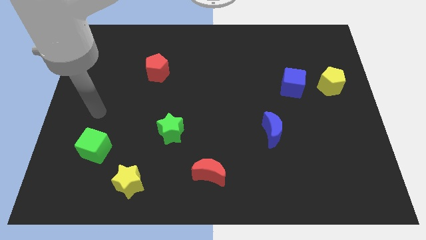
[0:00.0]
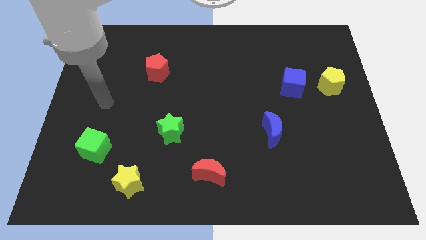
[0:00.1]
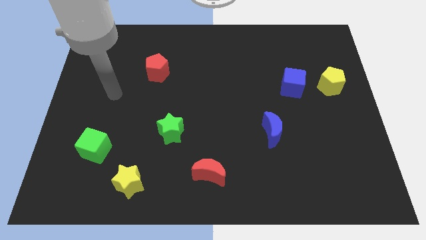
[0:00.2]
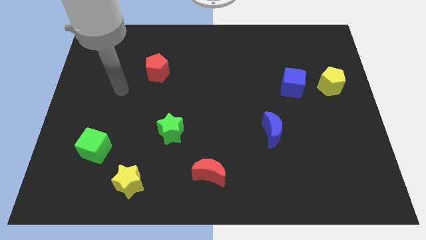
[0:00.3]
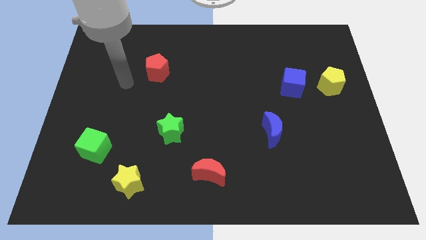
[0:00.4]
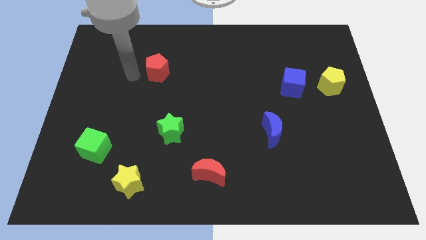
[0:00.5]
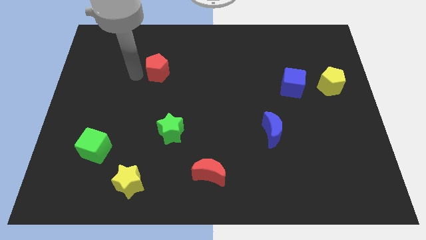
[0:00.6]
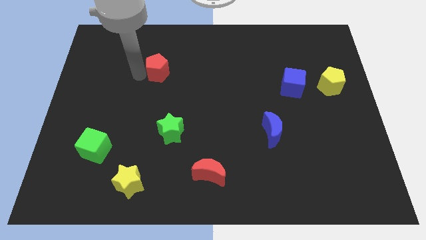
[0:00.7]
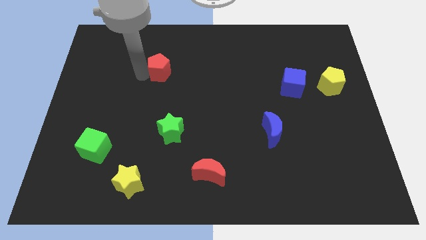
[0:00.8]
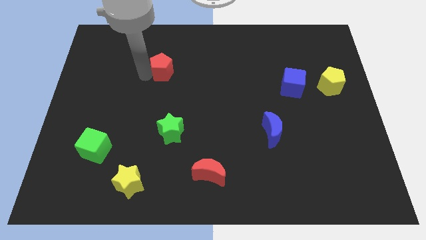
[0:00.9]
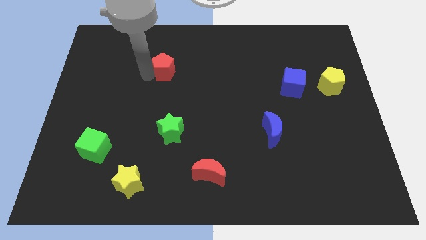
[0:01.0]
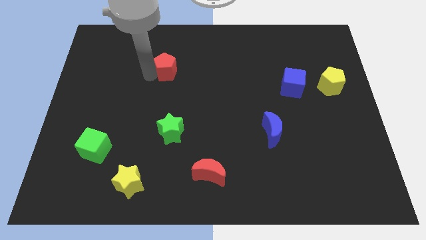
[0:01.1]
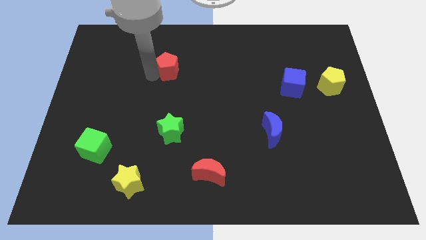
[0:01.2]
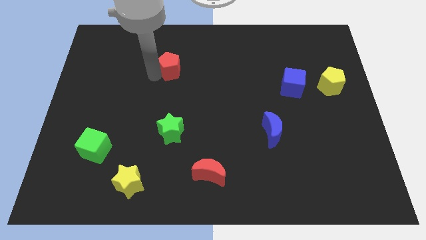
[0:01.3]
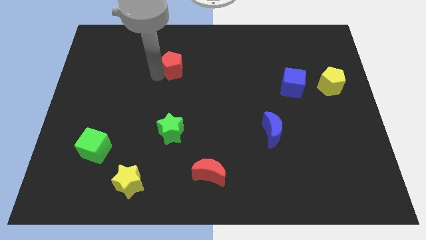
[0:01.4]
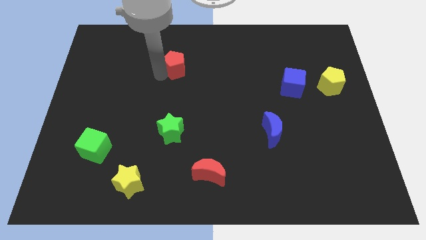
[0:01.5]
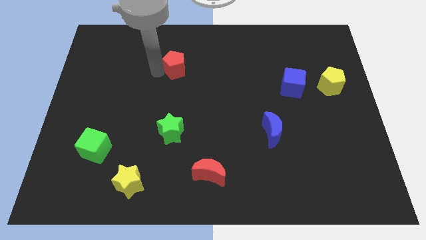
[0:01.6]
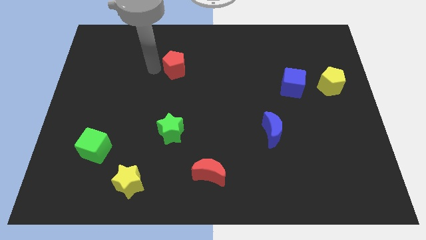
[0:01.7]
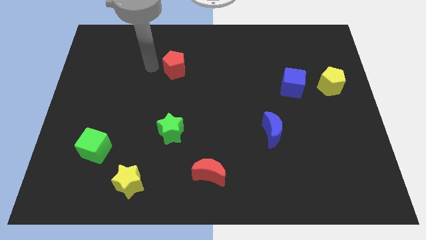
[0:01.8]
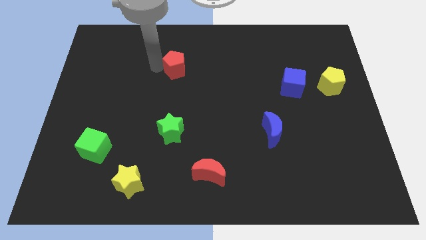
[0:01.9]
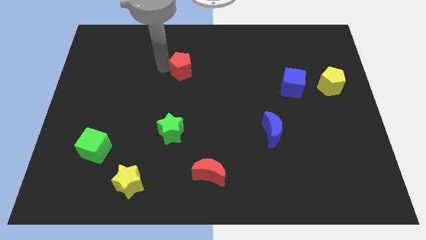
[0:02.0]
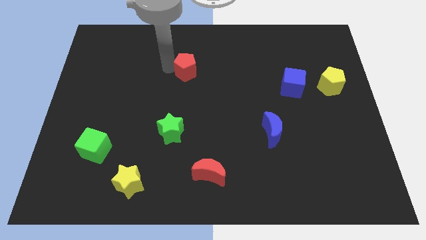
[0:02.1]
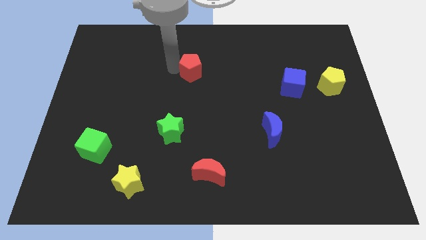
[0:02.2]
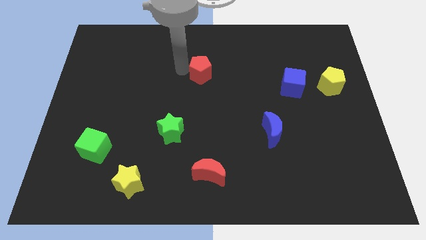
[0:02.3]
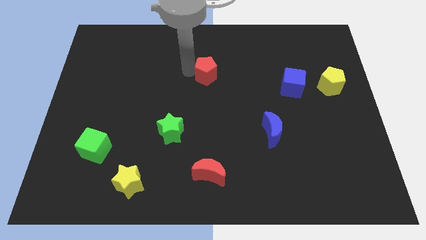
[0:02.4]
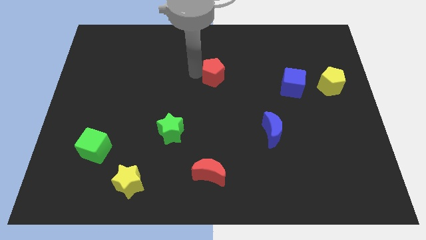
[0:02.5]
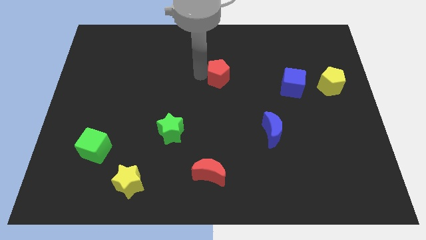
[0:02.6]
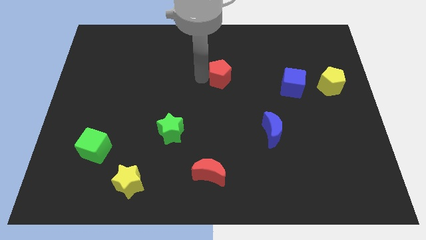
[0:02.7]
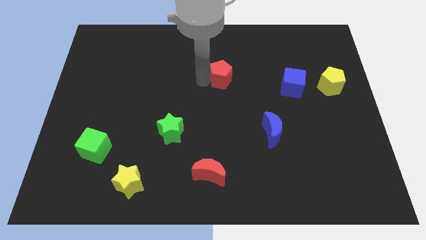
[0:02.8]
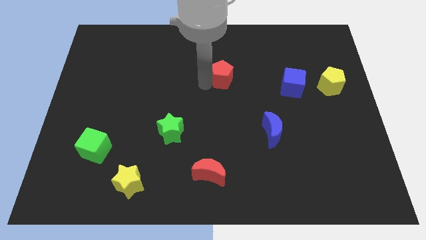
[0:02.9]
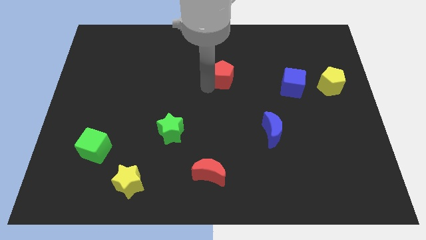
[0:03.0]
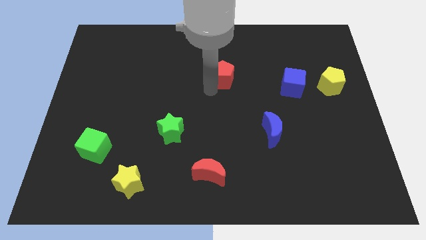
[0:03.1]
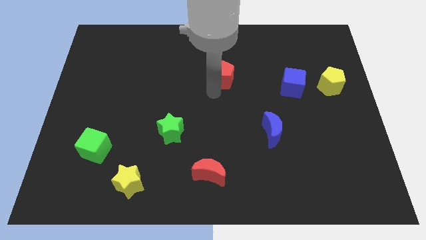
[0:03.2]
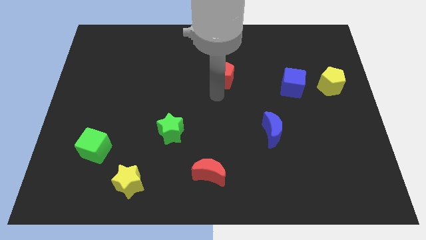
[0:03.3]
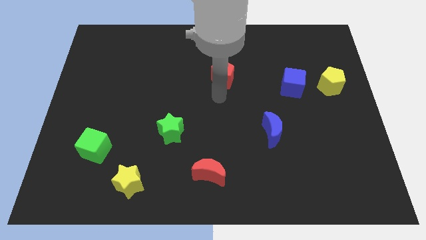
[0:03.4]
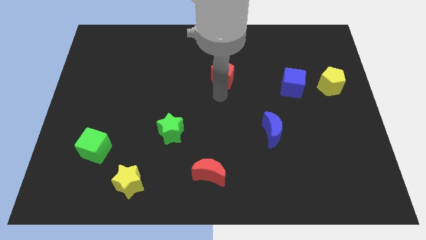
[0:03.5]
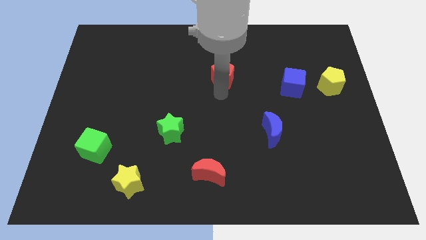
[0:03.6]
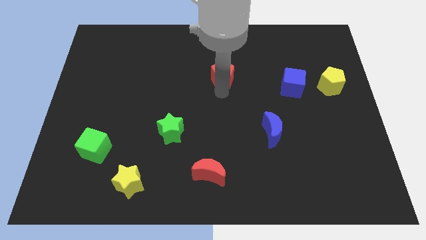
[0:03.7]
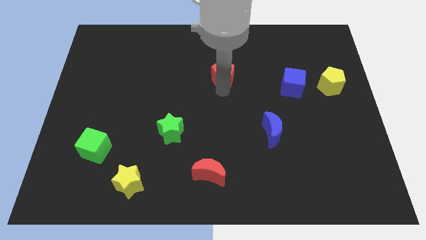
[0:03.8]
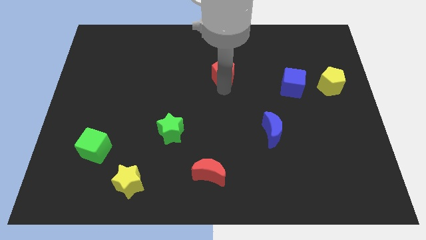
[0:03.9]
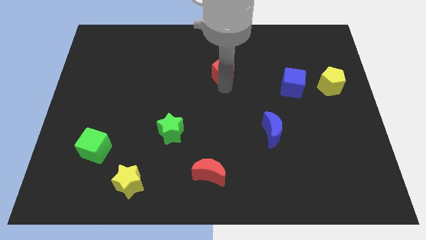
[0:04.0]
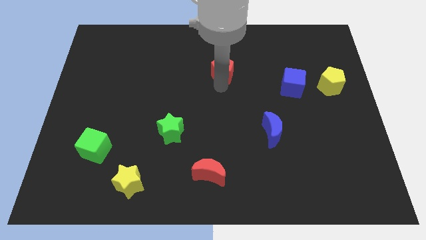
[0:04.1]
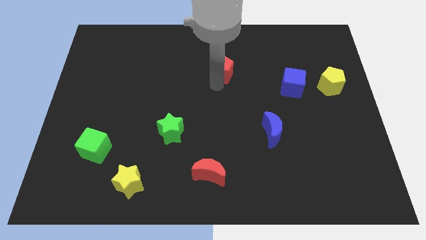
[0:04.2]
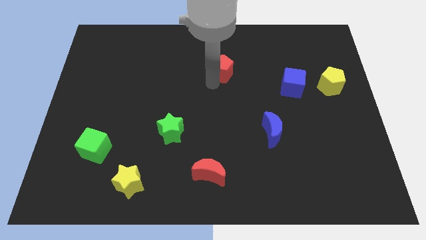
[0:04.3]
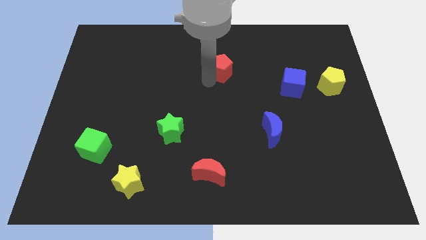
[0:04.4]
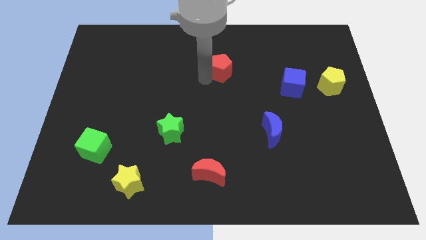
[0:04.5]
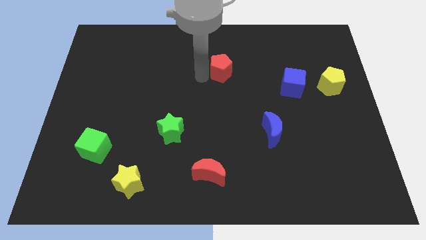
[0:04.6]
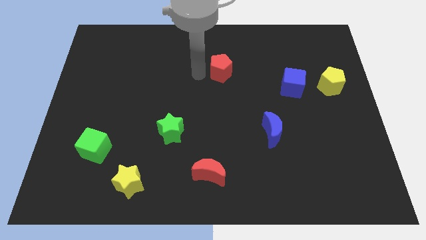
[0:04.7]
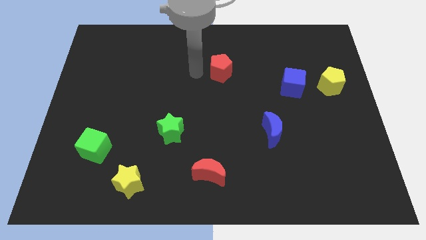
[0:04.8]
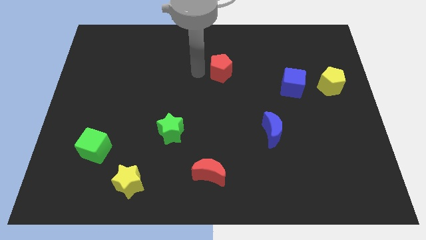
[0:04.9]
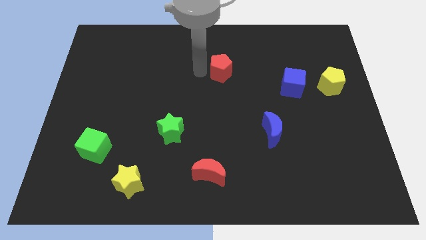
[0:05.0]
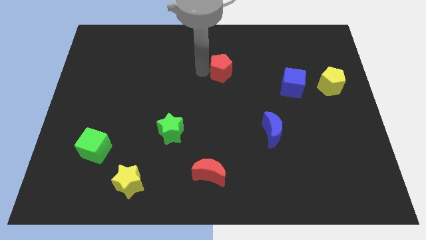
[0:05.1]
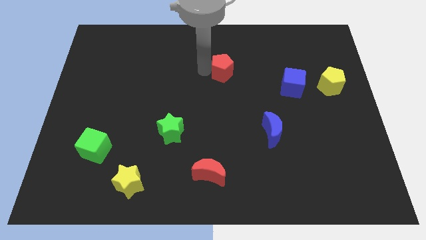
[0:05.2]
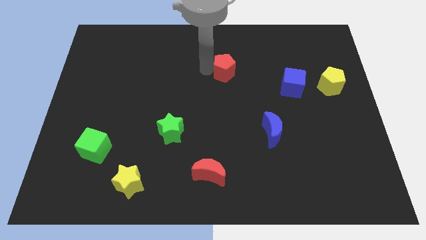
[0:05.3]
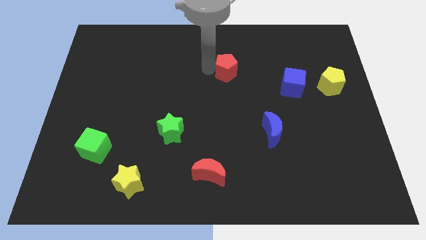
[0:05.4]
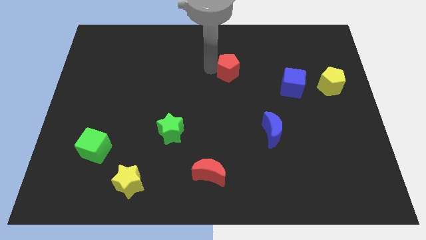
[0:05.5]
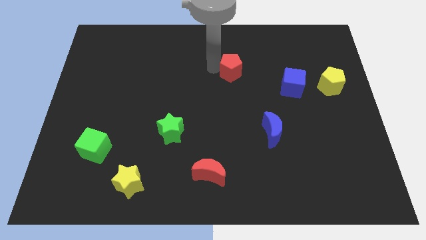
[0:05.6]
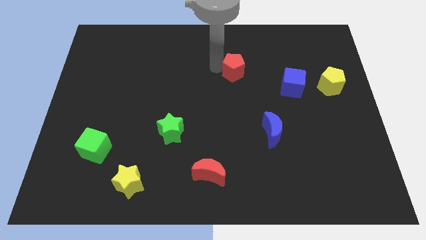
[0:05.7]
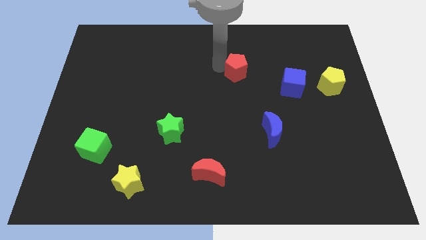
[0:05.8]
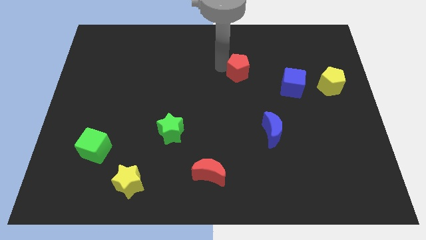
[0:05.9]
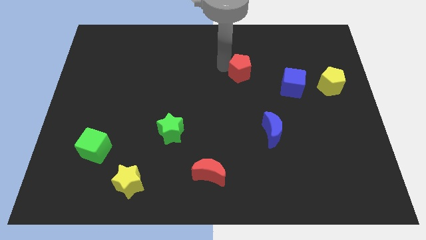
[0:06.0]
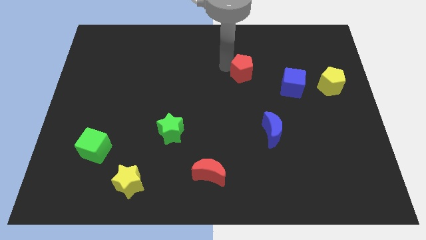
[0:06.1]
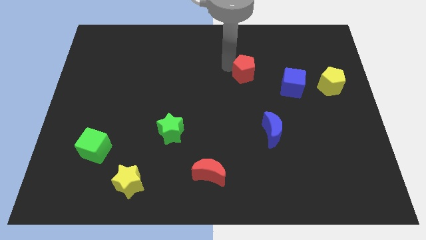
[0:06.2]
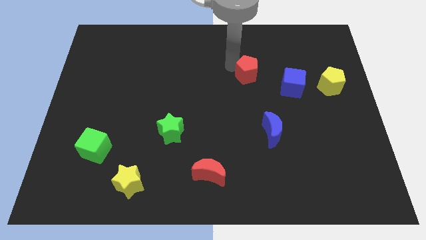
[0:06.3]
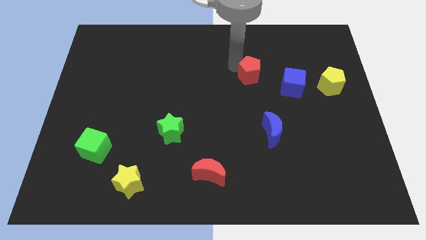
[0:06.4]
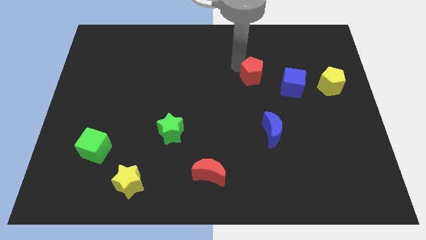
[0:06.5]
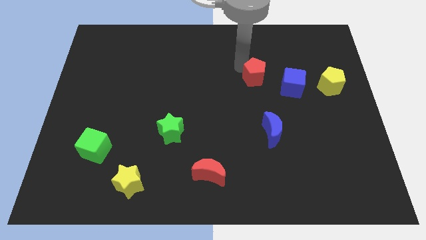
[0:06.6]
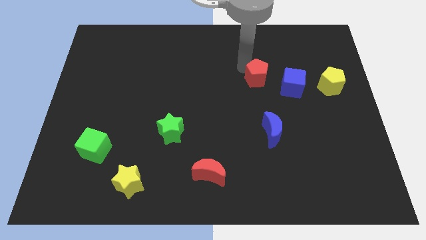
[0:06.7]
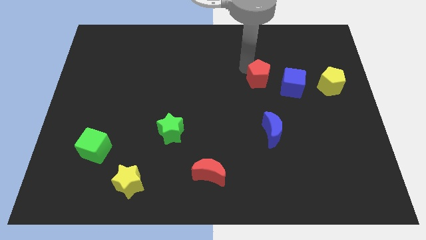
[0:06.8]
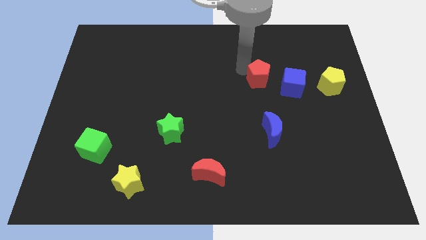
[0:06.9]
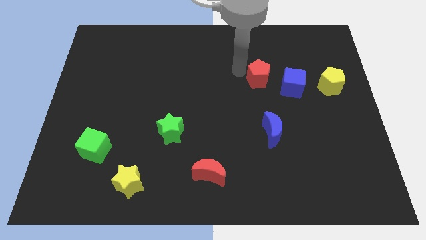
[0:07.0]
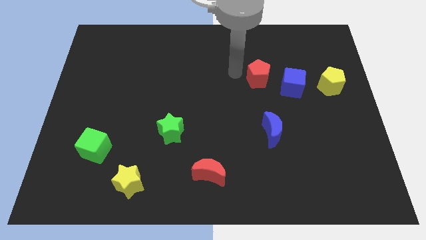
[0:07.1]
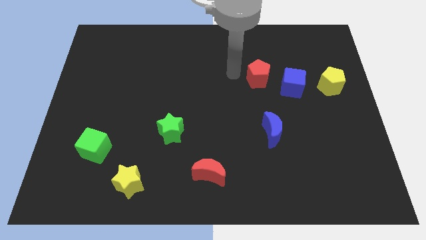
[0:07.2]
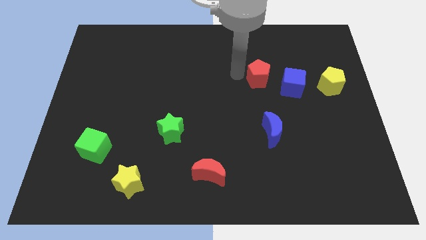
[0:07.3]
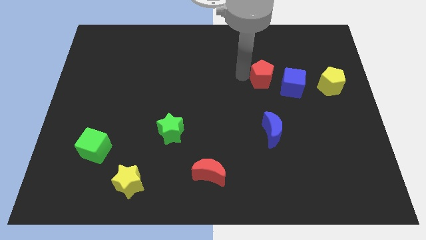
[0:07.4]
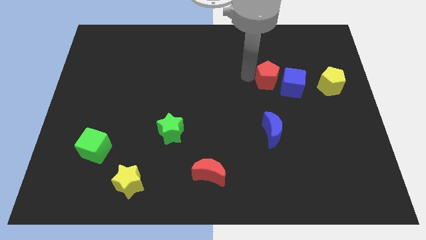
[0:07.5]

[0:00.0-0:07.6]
move the red pentagon next to the blue cube
